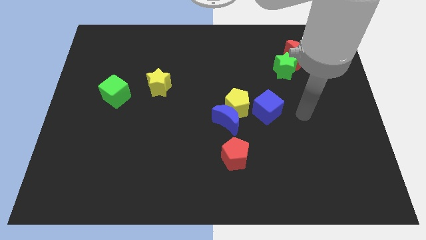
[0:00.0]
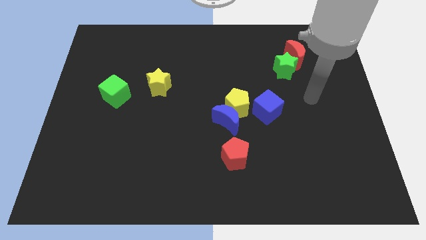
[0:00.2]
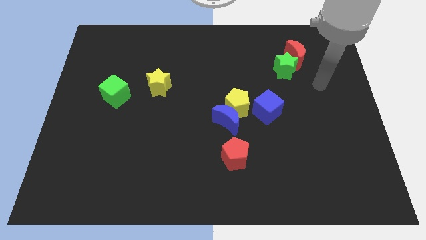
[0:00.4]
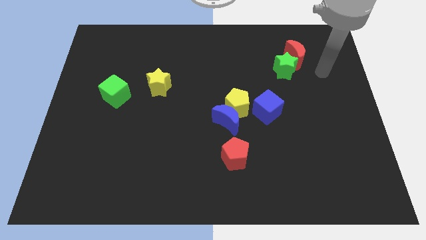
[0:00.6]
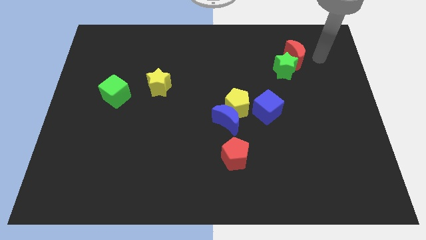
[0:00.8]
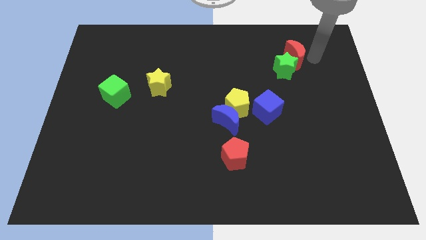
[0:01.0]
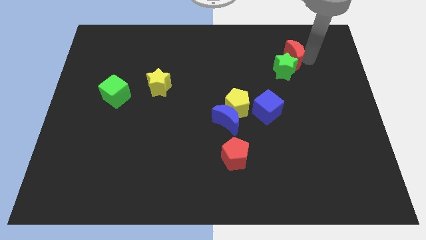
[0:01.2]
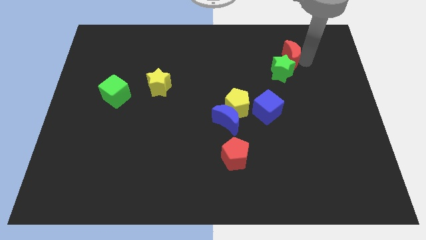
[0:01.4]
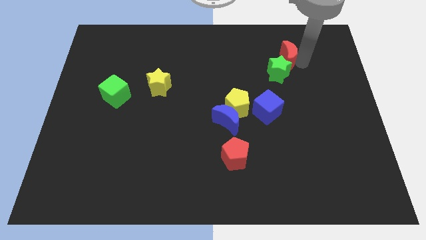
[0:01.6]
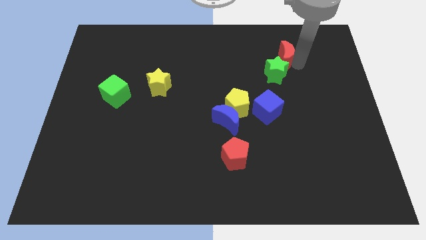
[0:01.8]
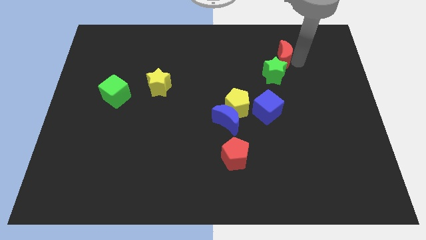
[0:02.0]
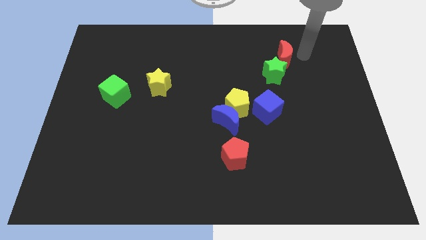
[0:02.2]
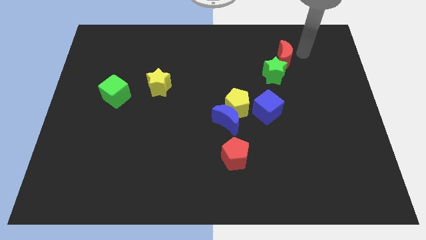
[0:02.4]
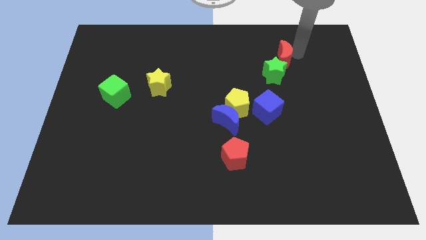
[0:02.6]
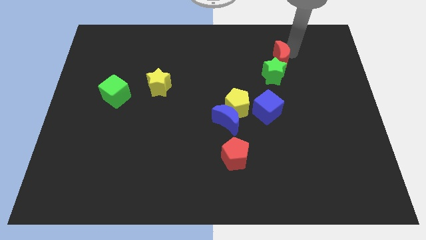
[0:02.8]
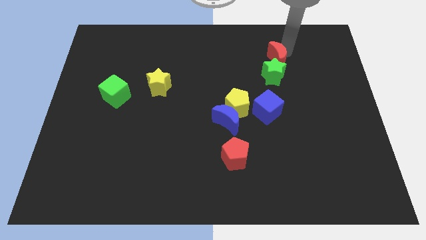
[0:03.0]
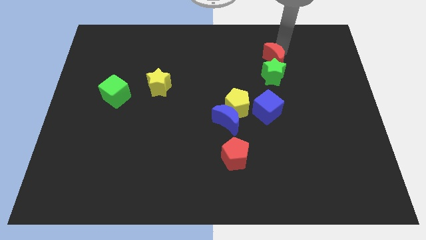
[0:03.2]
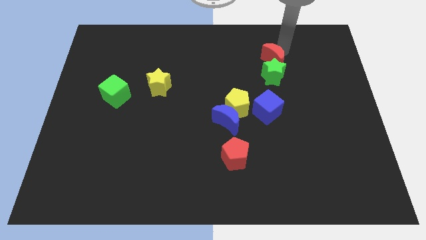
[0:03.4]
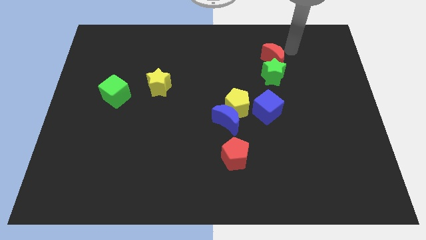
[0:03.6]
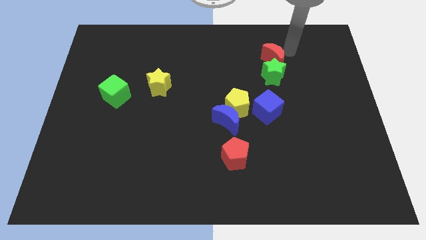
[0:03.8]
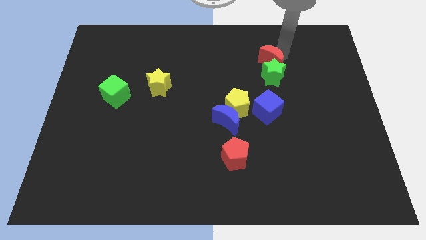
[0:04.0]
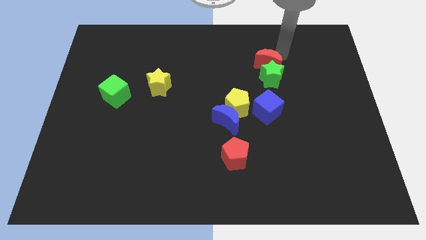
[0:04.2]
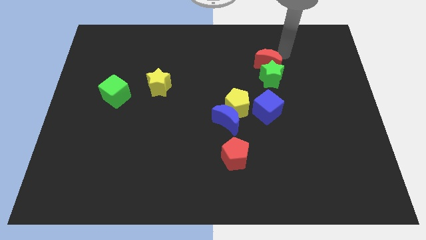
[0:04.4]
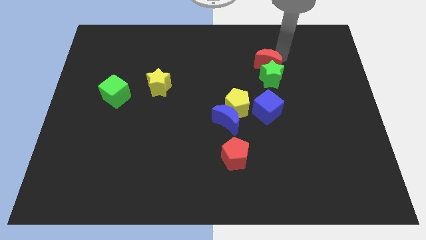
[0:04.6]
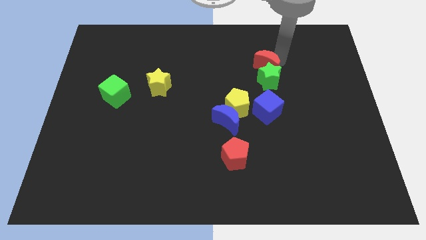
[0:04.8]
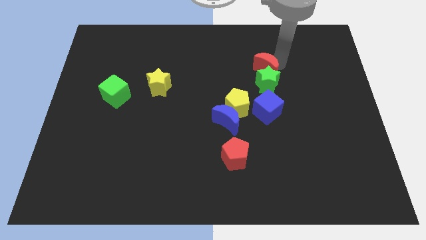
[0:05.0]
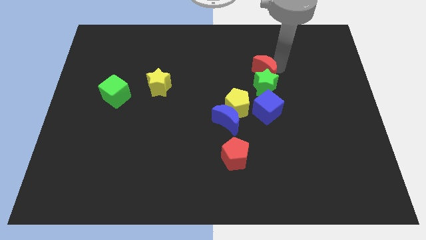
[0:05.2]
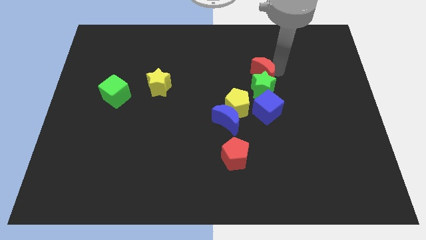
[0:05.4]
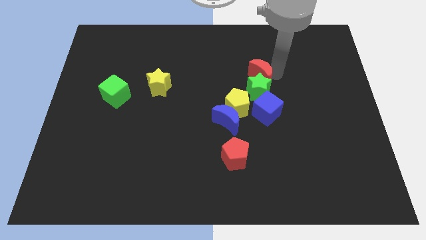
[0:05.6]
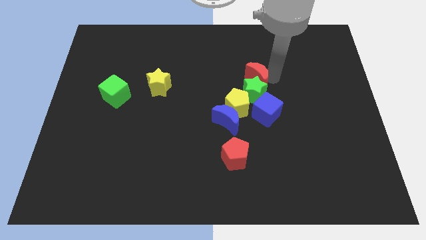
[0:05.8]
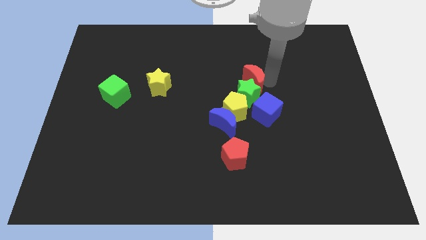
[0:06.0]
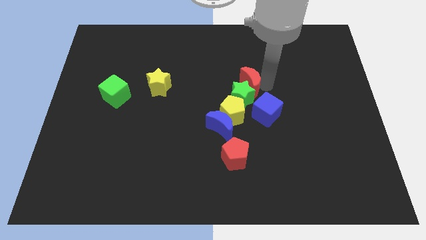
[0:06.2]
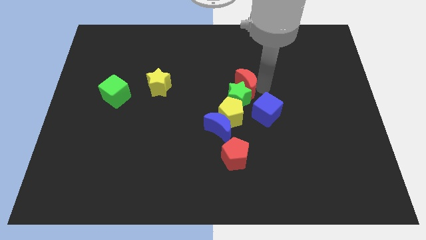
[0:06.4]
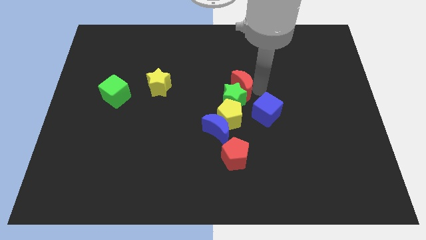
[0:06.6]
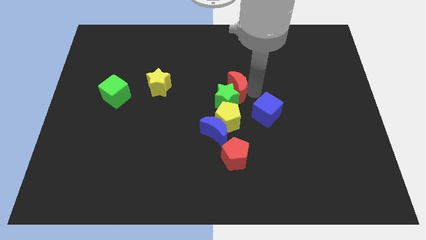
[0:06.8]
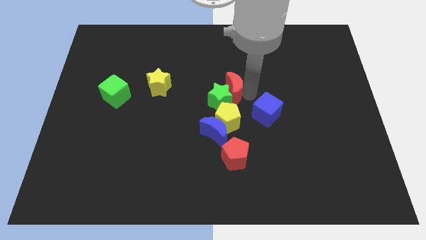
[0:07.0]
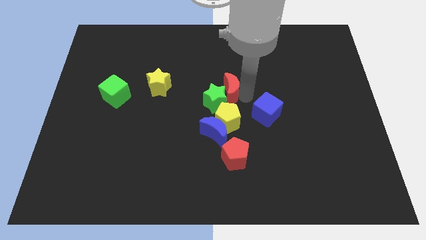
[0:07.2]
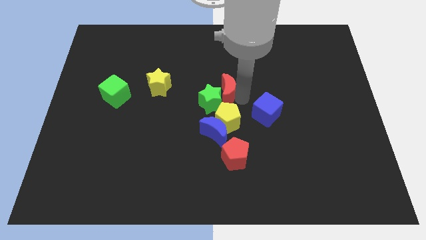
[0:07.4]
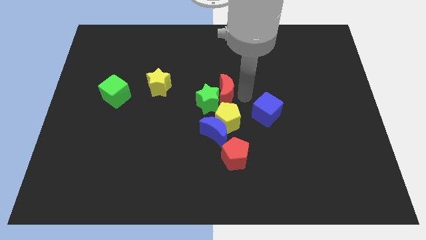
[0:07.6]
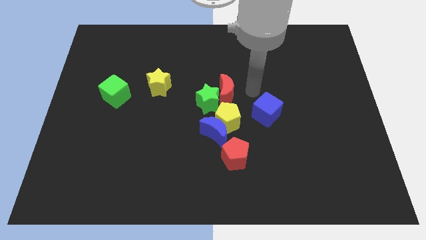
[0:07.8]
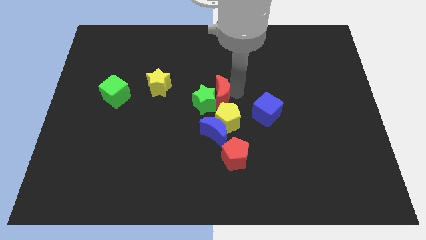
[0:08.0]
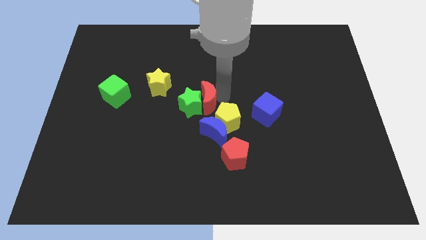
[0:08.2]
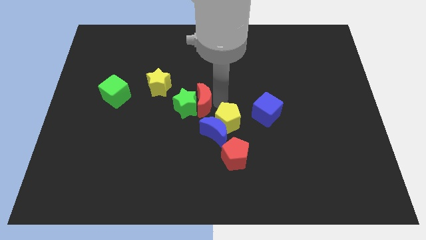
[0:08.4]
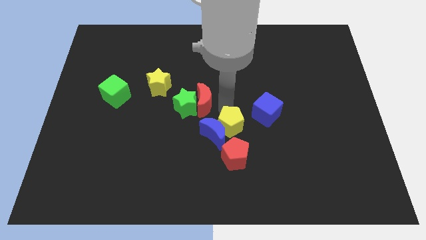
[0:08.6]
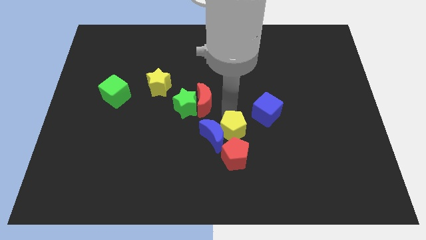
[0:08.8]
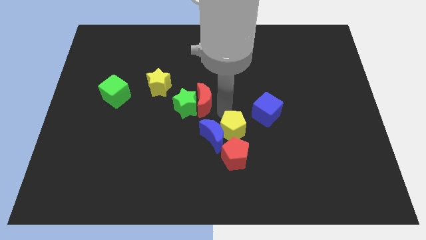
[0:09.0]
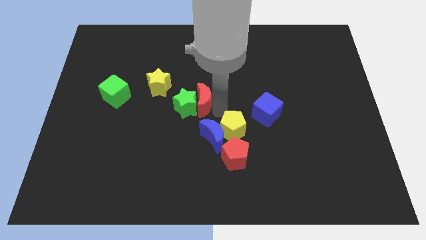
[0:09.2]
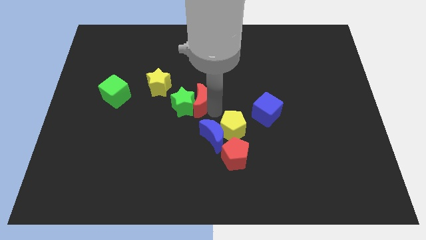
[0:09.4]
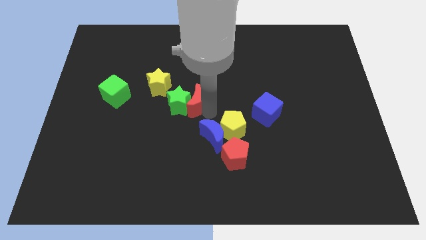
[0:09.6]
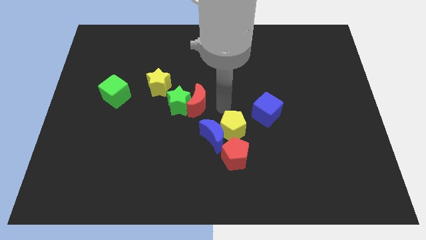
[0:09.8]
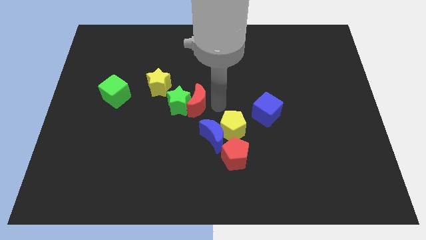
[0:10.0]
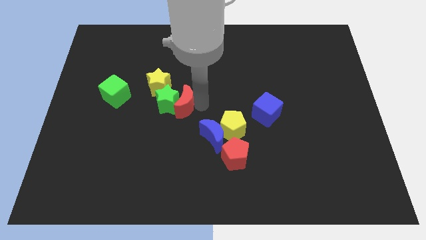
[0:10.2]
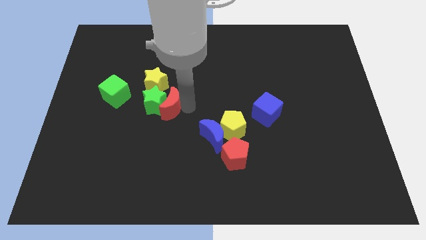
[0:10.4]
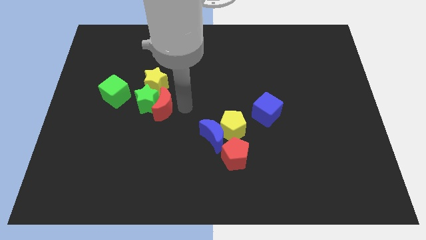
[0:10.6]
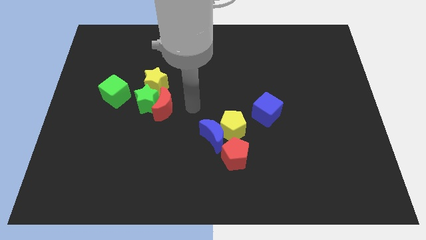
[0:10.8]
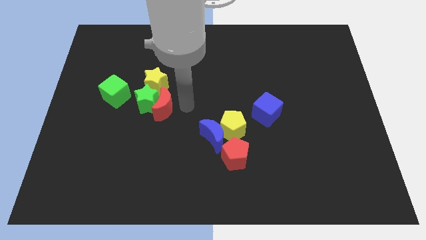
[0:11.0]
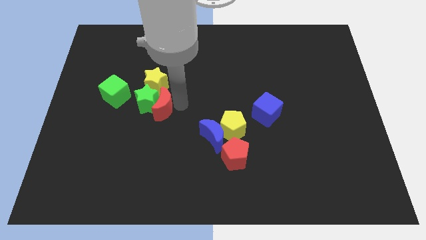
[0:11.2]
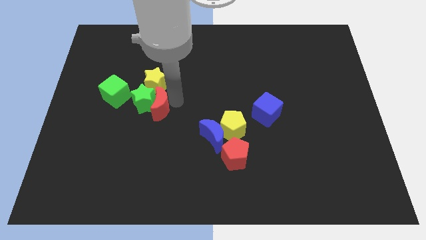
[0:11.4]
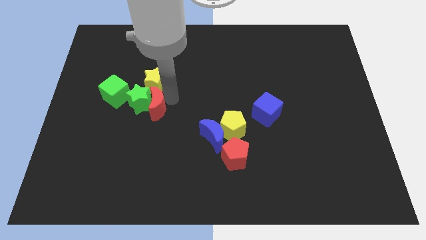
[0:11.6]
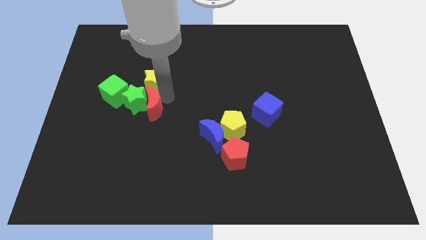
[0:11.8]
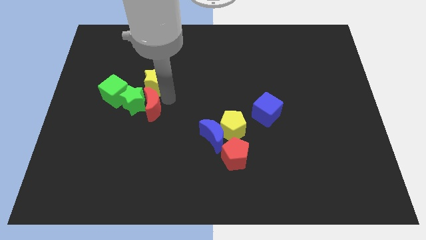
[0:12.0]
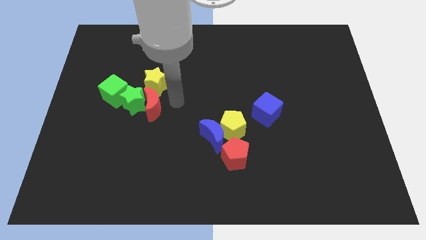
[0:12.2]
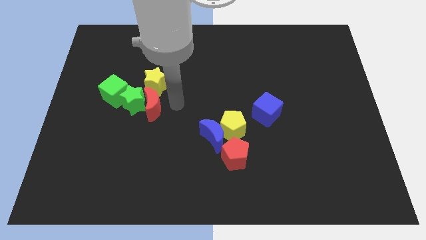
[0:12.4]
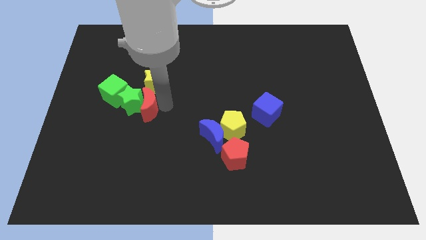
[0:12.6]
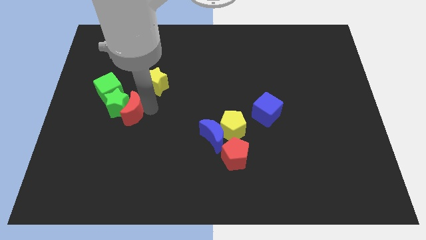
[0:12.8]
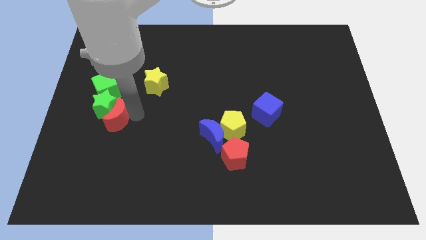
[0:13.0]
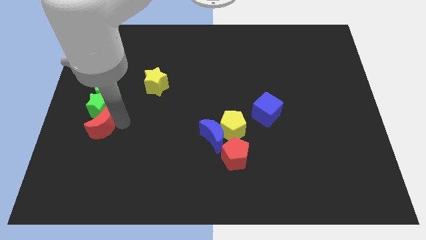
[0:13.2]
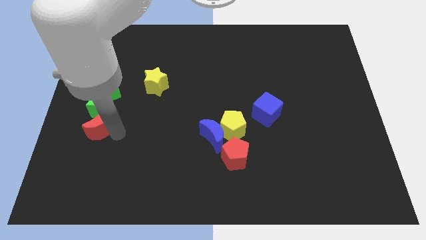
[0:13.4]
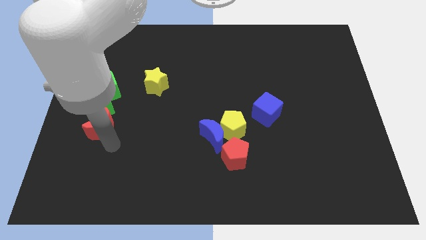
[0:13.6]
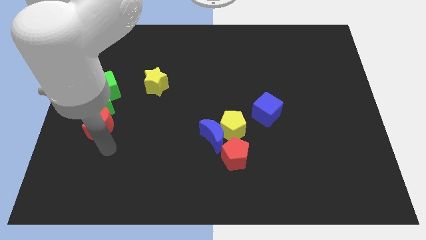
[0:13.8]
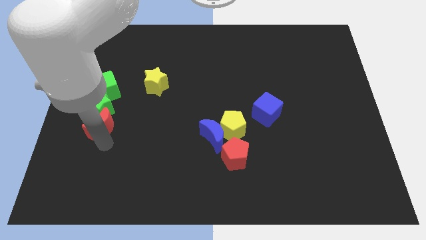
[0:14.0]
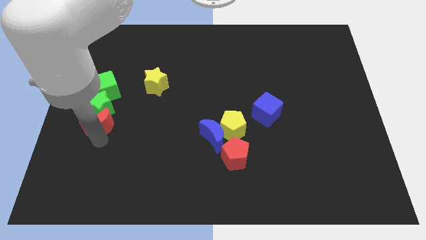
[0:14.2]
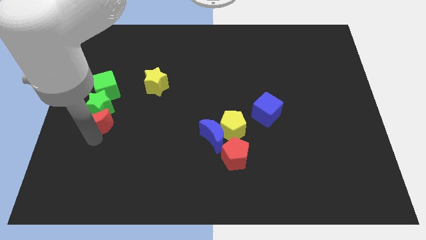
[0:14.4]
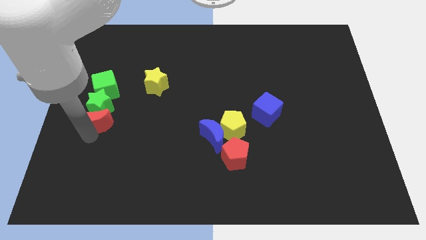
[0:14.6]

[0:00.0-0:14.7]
move the red moon to the left side
